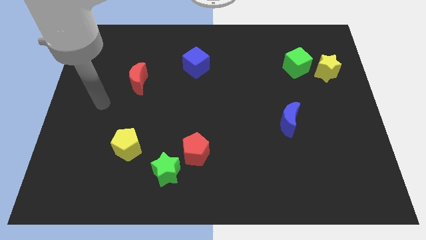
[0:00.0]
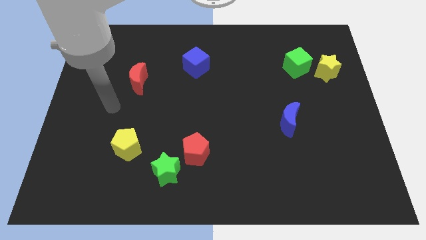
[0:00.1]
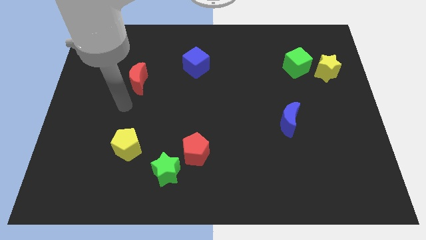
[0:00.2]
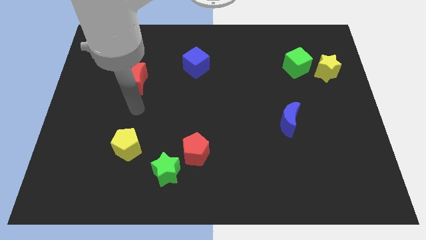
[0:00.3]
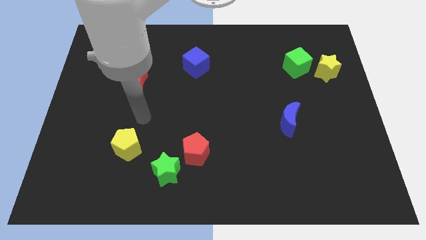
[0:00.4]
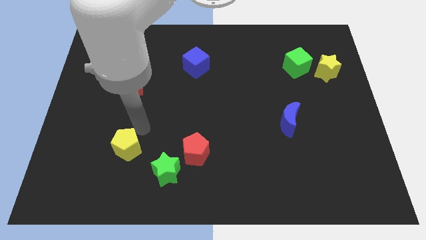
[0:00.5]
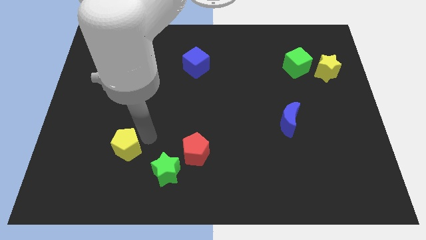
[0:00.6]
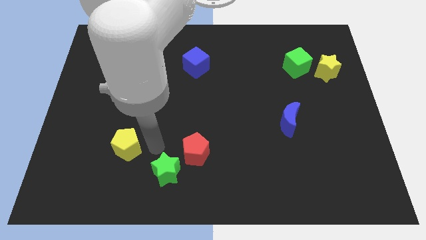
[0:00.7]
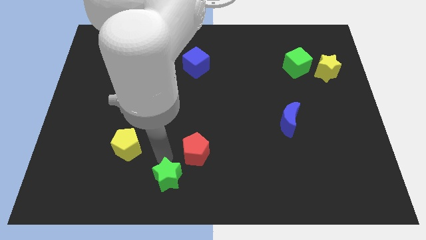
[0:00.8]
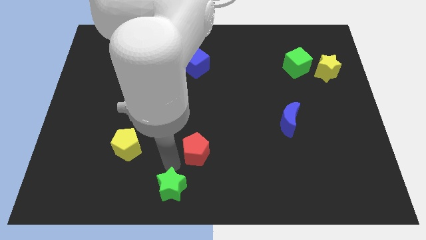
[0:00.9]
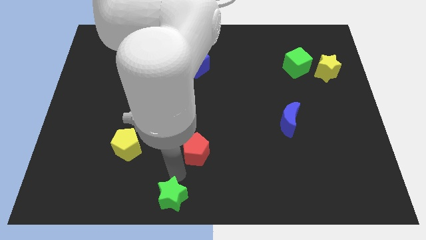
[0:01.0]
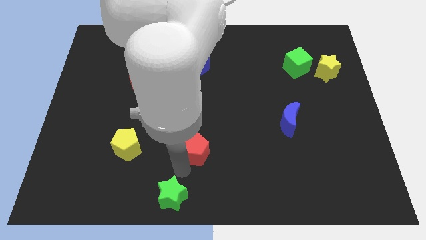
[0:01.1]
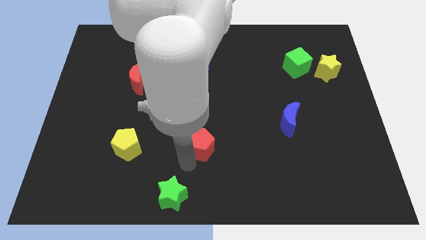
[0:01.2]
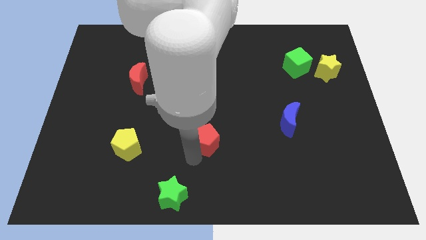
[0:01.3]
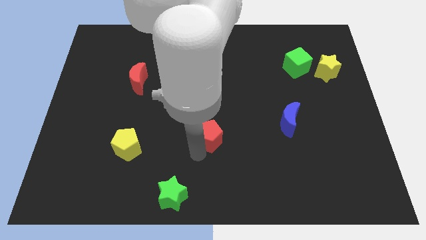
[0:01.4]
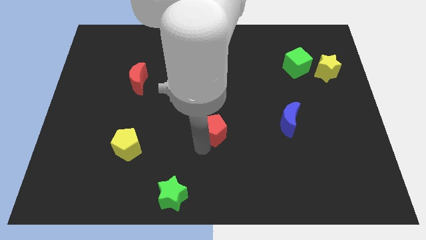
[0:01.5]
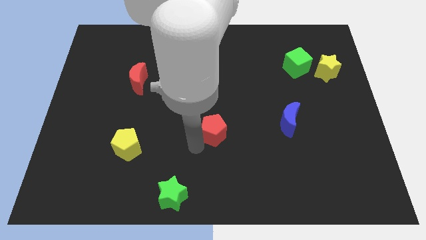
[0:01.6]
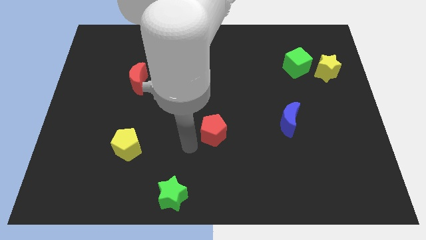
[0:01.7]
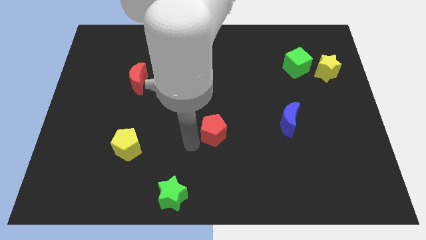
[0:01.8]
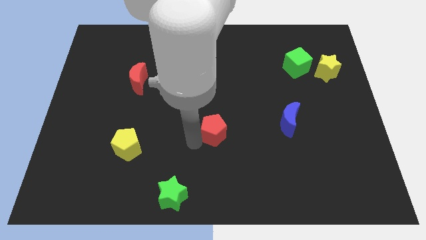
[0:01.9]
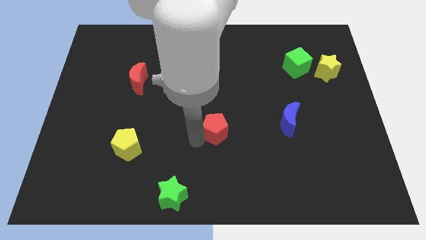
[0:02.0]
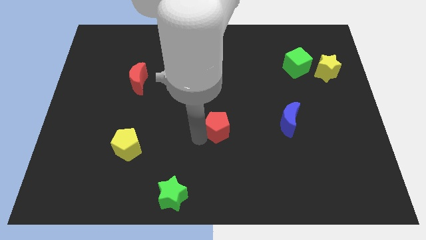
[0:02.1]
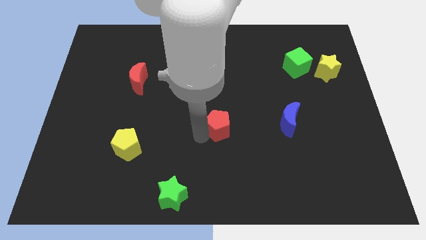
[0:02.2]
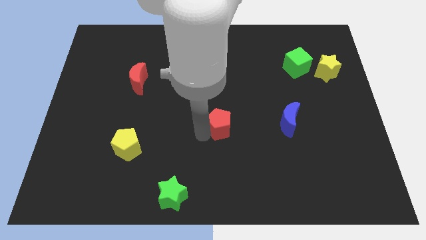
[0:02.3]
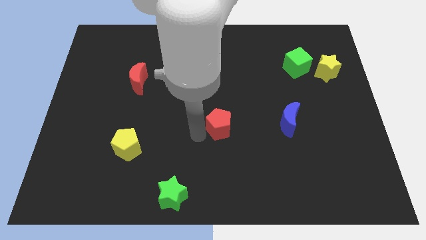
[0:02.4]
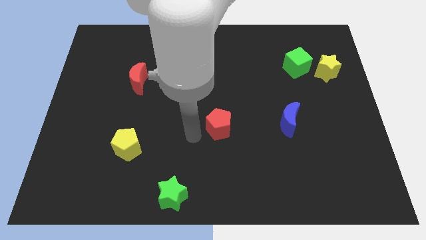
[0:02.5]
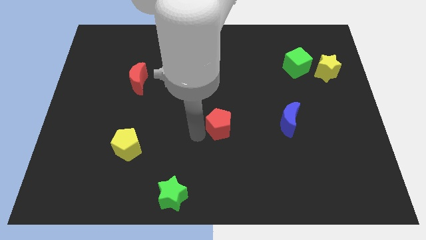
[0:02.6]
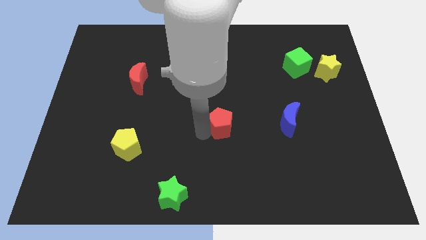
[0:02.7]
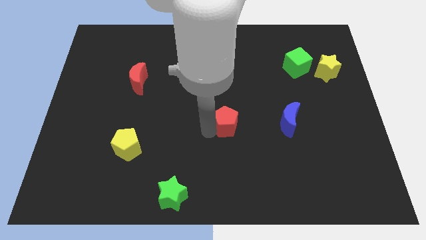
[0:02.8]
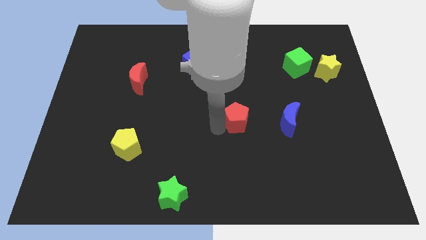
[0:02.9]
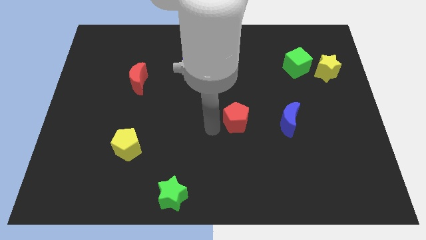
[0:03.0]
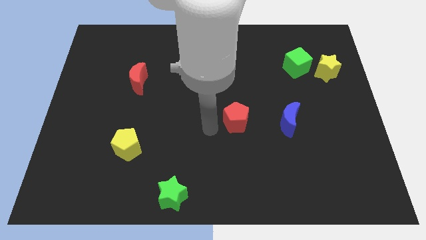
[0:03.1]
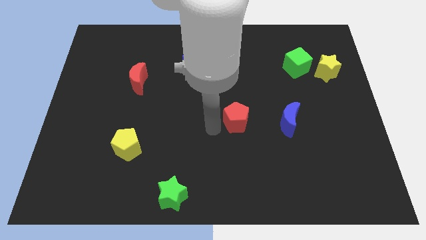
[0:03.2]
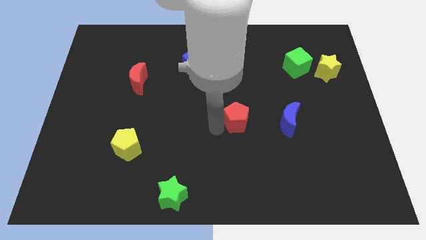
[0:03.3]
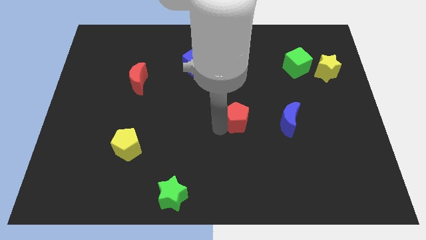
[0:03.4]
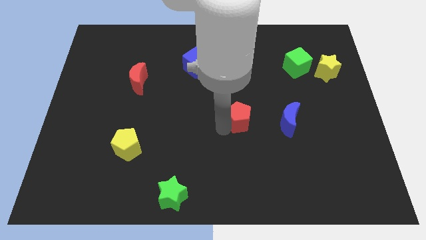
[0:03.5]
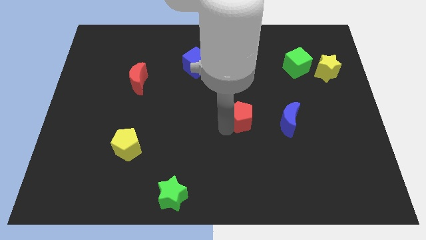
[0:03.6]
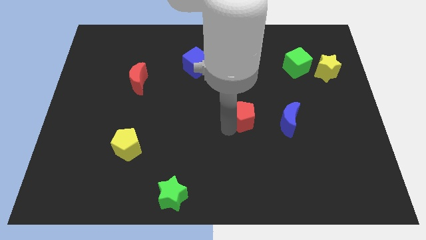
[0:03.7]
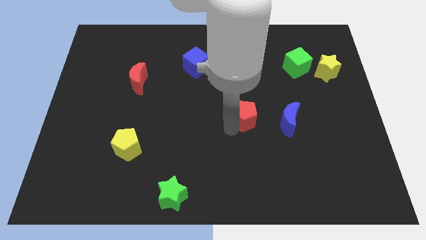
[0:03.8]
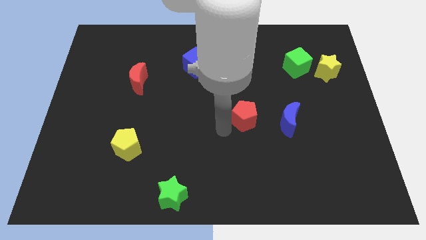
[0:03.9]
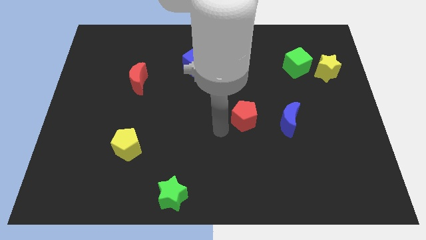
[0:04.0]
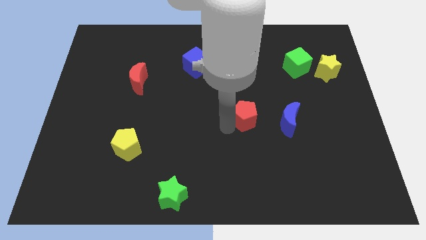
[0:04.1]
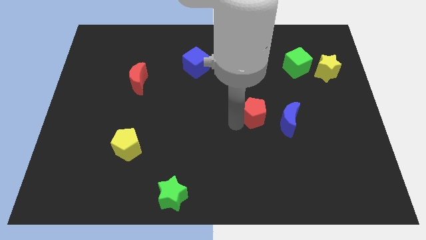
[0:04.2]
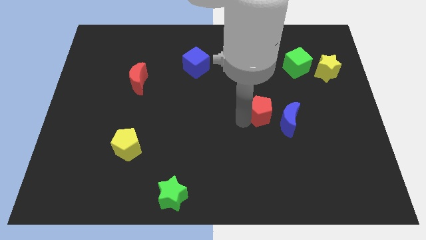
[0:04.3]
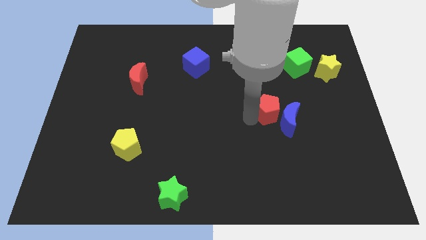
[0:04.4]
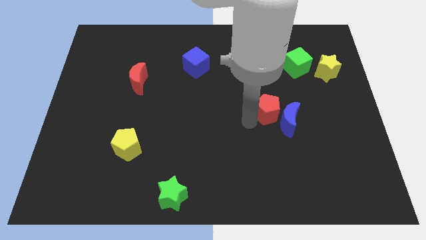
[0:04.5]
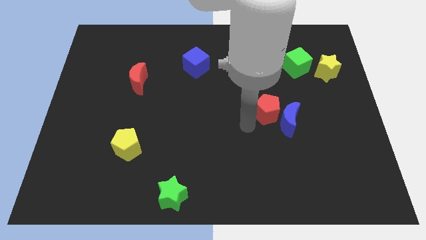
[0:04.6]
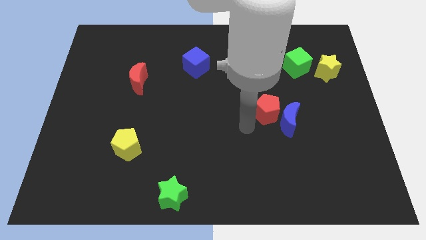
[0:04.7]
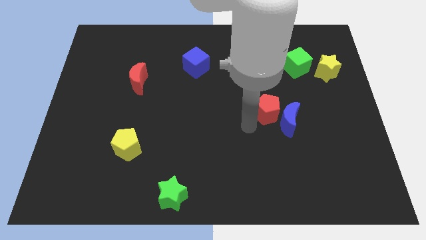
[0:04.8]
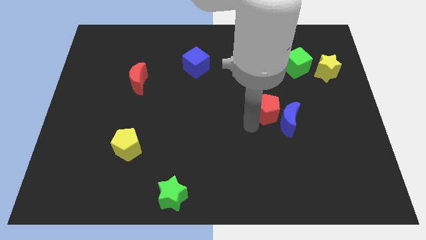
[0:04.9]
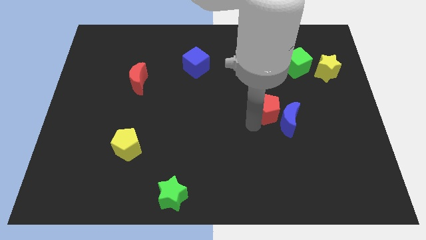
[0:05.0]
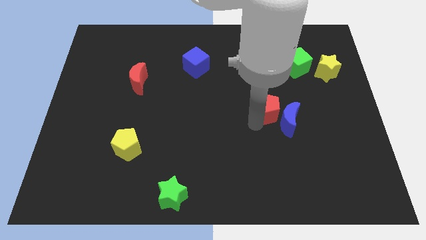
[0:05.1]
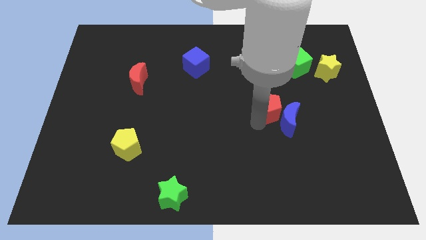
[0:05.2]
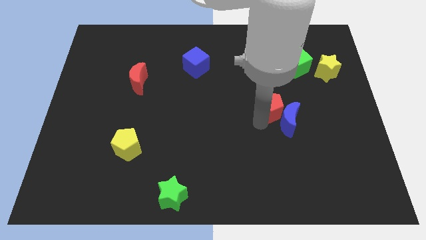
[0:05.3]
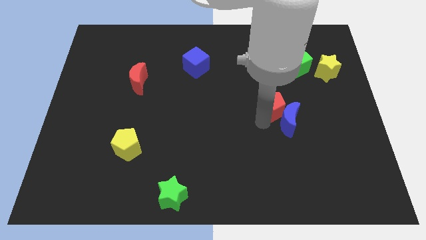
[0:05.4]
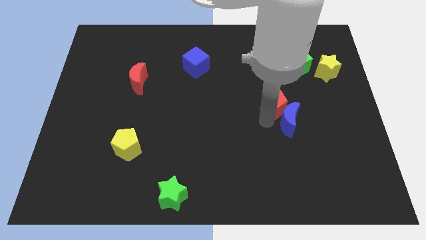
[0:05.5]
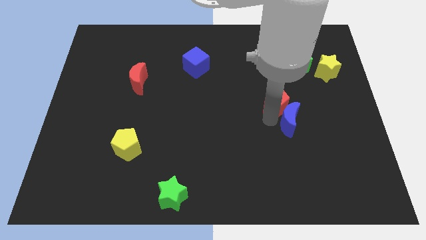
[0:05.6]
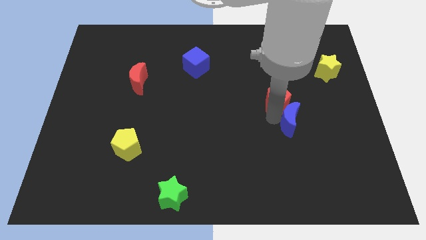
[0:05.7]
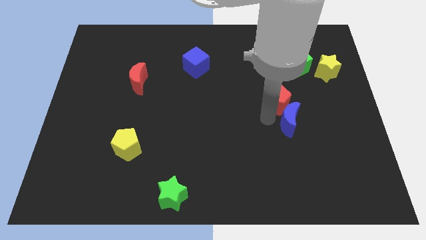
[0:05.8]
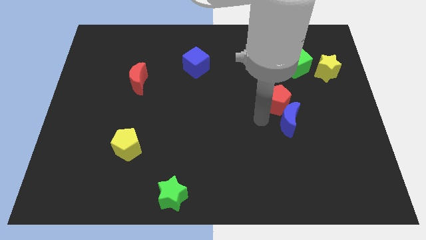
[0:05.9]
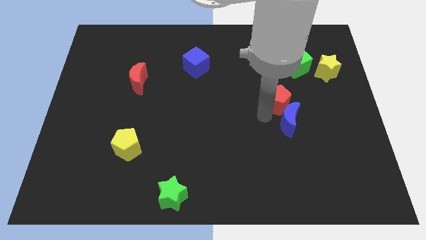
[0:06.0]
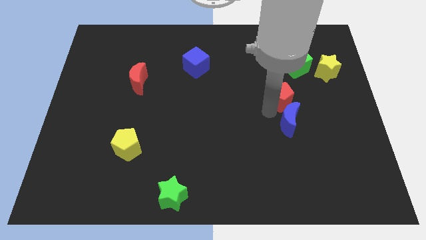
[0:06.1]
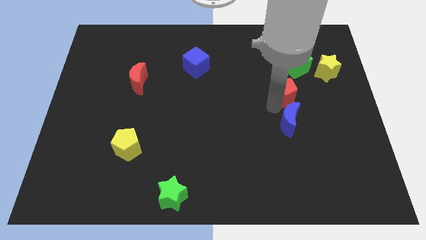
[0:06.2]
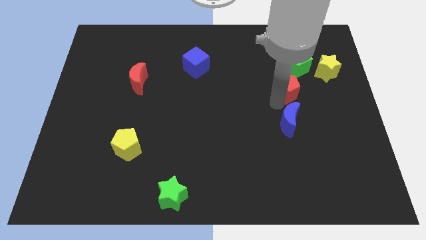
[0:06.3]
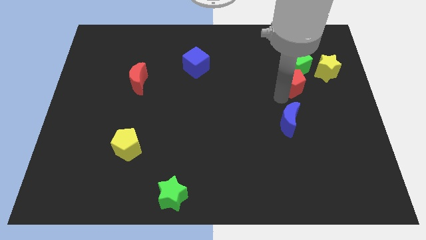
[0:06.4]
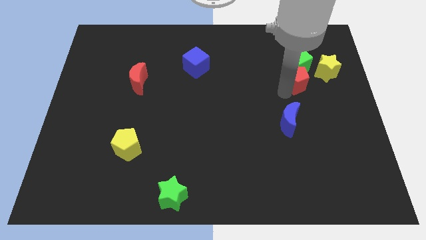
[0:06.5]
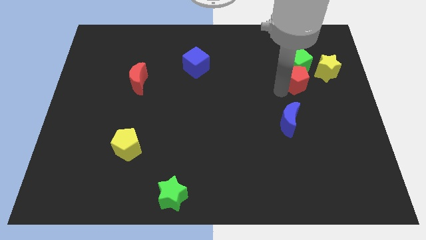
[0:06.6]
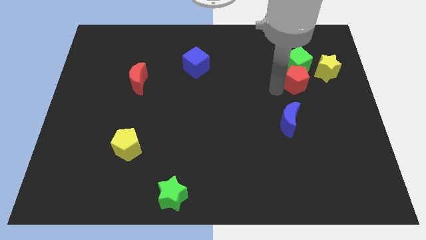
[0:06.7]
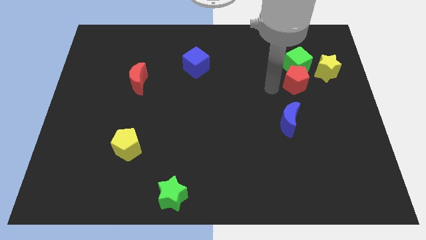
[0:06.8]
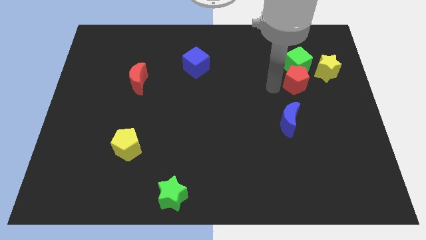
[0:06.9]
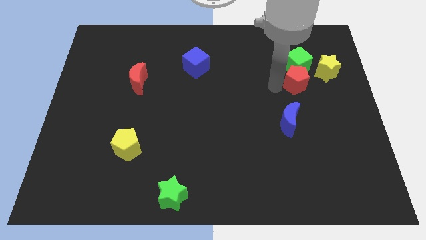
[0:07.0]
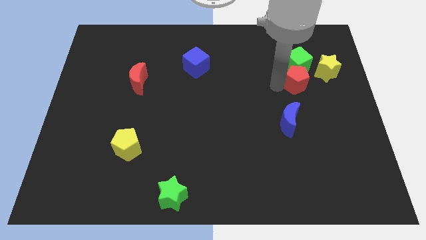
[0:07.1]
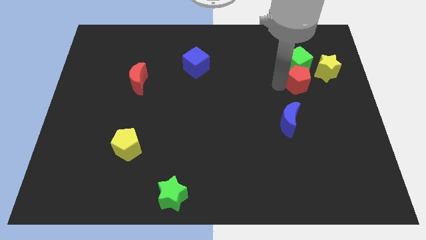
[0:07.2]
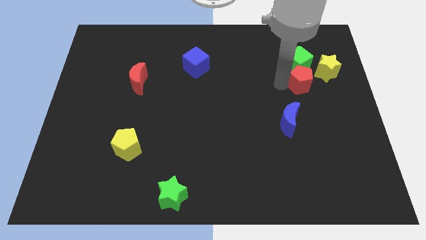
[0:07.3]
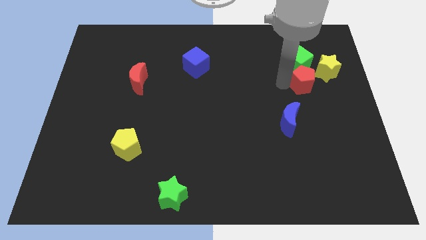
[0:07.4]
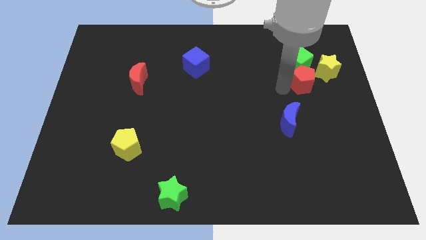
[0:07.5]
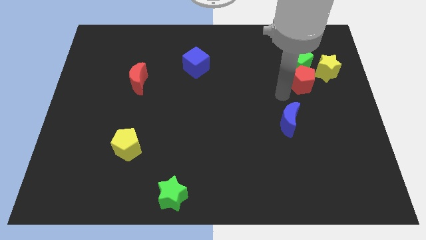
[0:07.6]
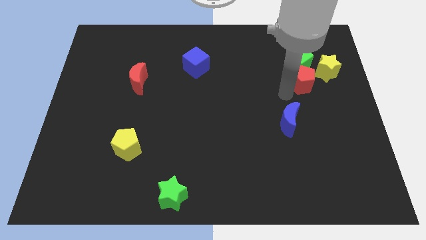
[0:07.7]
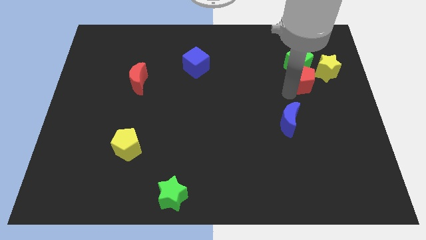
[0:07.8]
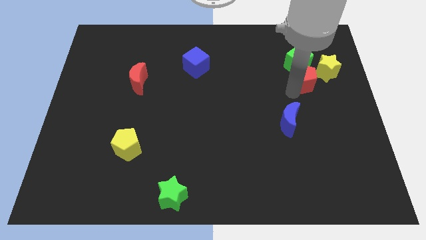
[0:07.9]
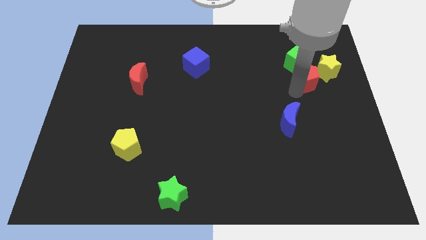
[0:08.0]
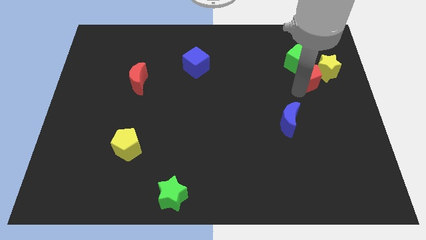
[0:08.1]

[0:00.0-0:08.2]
move the red pentagon towards the yellow star

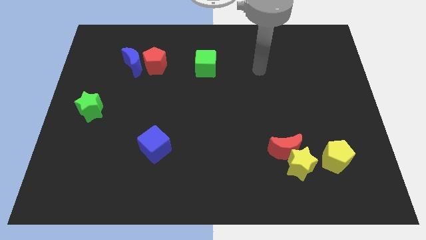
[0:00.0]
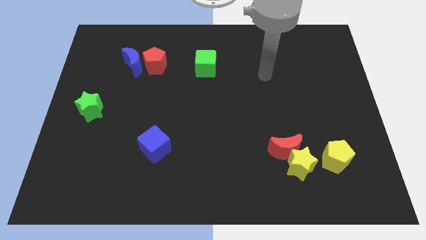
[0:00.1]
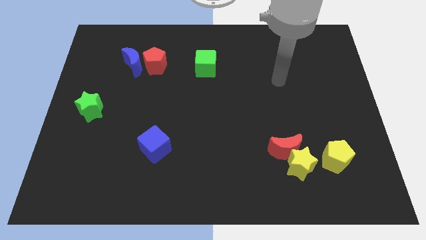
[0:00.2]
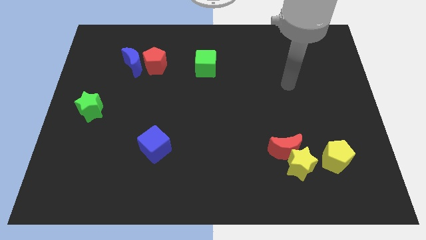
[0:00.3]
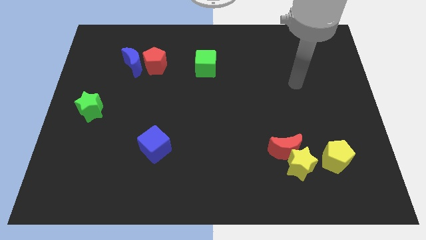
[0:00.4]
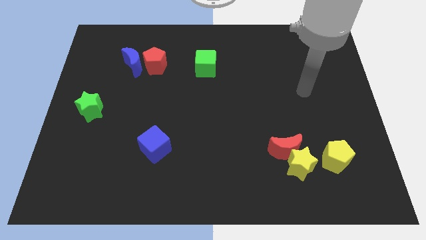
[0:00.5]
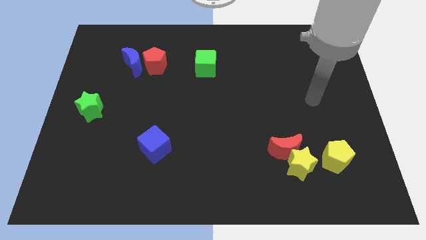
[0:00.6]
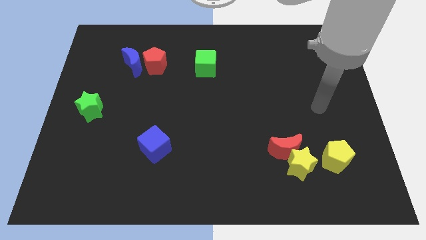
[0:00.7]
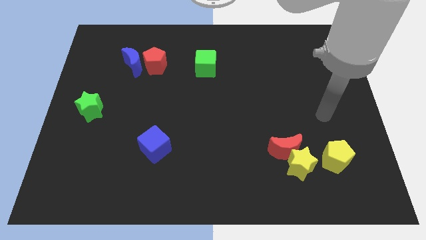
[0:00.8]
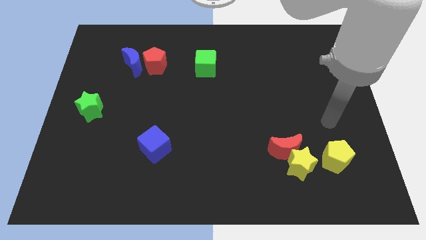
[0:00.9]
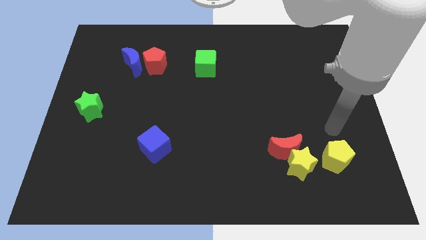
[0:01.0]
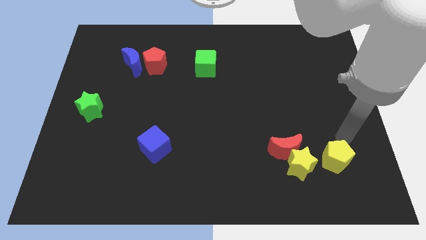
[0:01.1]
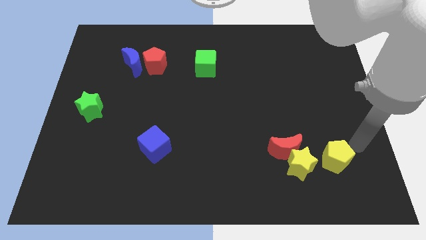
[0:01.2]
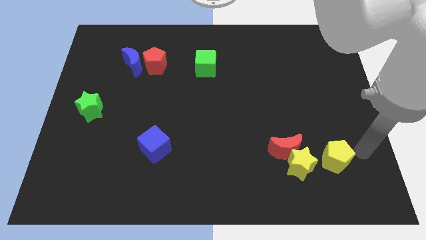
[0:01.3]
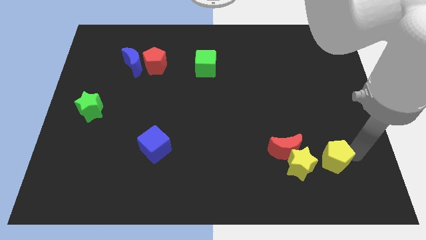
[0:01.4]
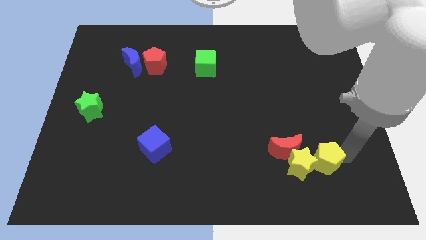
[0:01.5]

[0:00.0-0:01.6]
slide the yellow pentagon close to the yellow star
